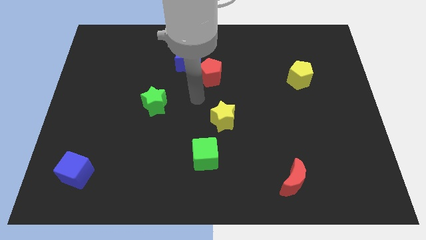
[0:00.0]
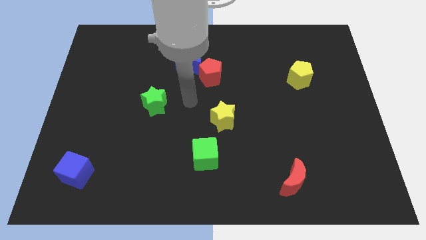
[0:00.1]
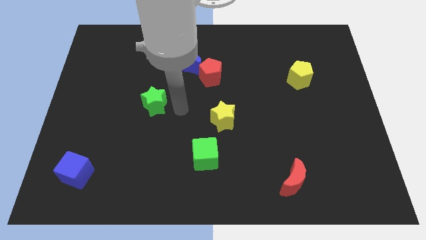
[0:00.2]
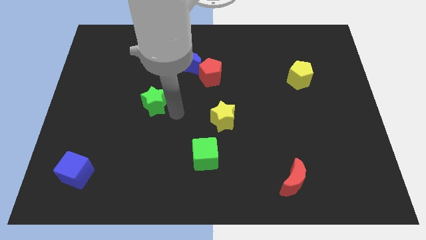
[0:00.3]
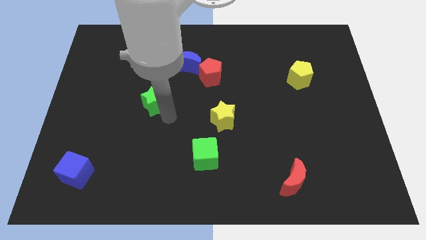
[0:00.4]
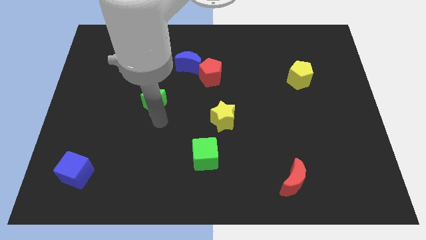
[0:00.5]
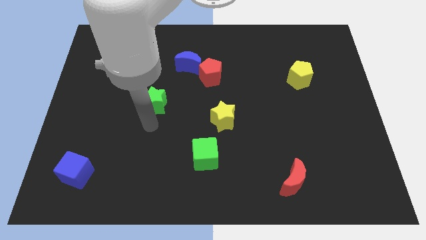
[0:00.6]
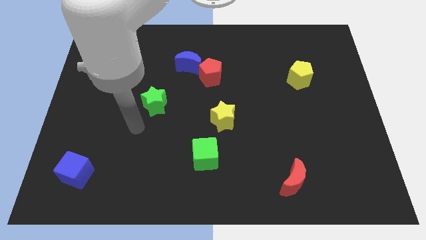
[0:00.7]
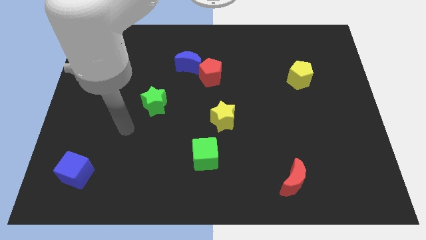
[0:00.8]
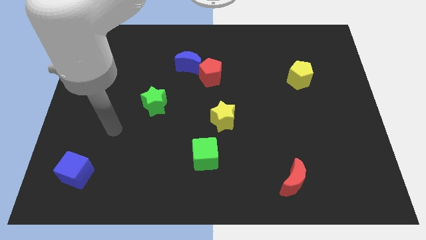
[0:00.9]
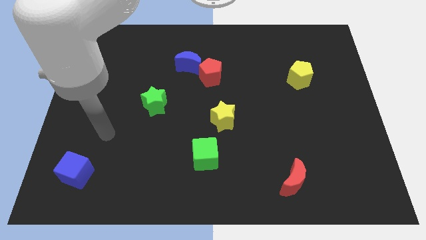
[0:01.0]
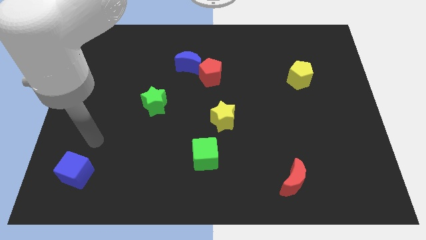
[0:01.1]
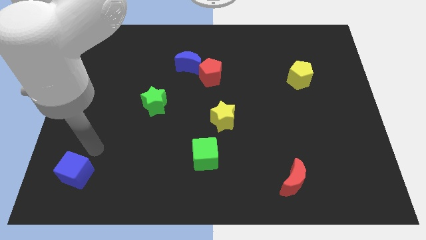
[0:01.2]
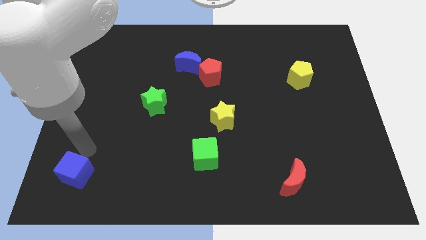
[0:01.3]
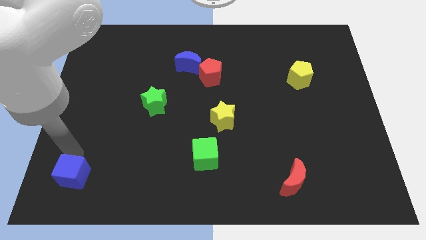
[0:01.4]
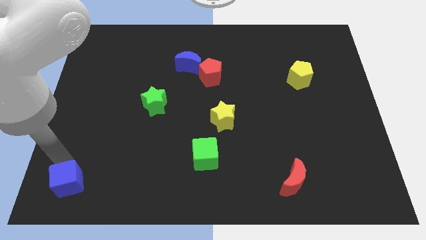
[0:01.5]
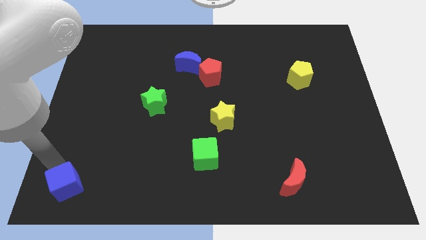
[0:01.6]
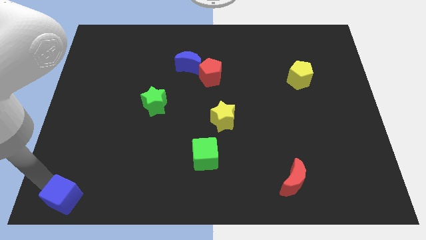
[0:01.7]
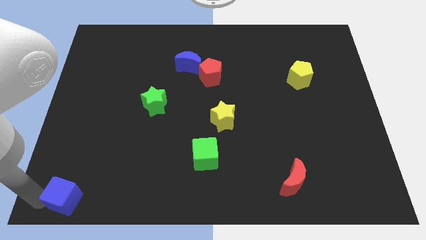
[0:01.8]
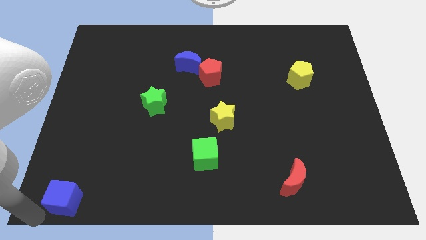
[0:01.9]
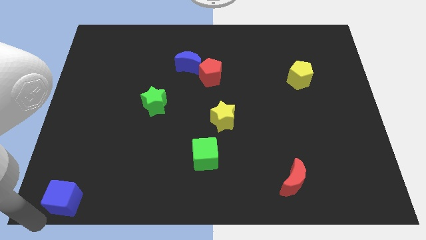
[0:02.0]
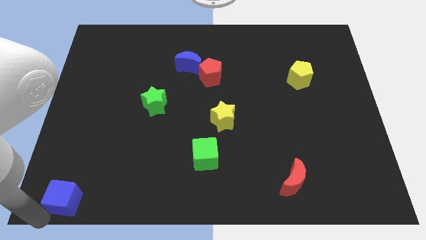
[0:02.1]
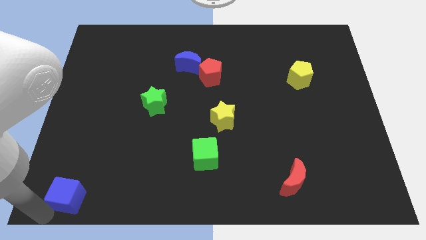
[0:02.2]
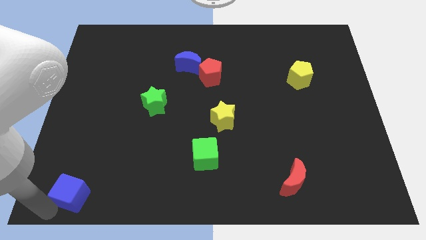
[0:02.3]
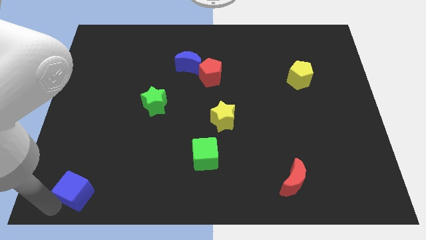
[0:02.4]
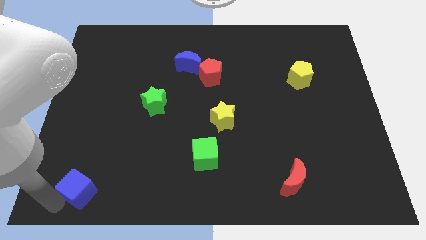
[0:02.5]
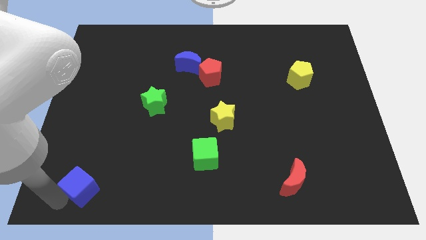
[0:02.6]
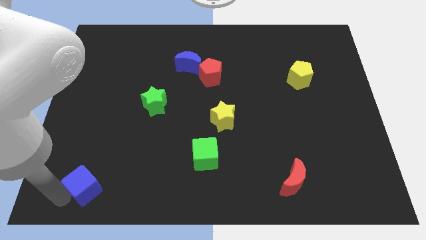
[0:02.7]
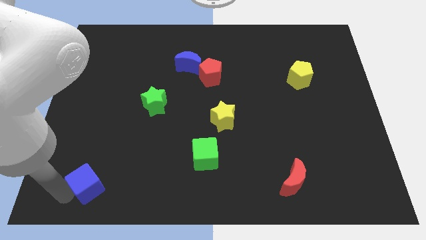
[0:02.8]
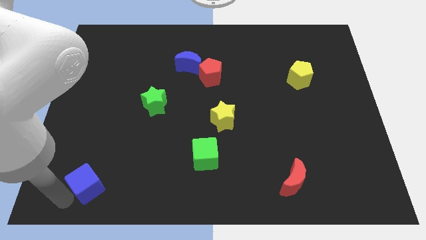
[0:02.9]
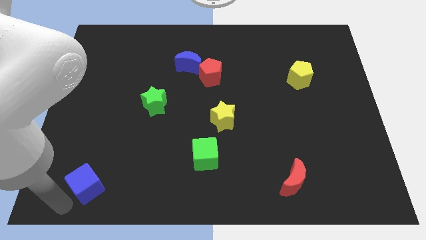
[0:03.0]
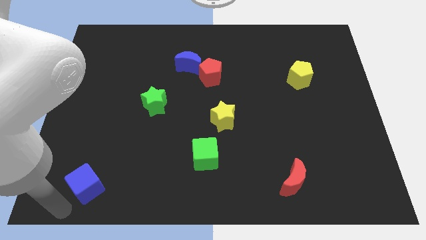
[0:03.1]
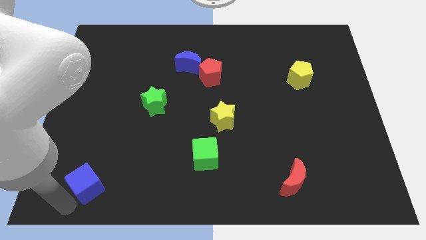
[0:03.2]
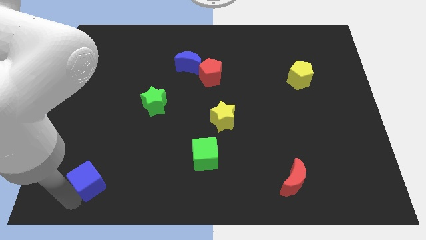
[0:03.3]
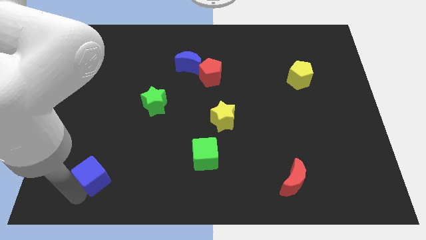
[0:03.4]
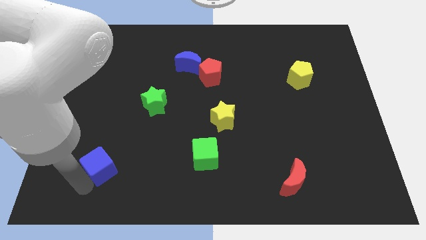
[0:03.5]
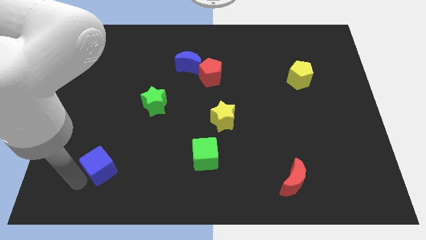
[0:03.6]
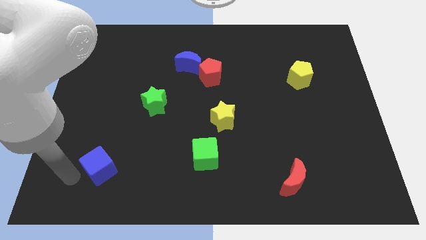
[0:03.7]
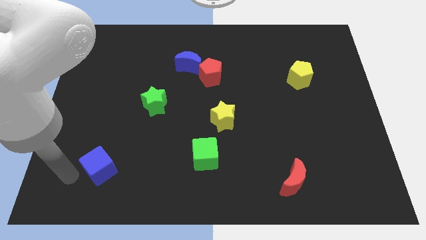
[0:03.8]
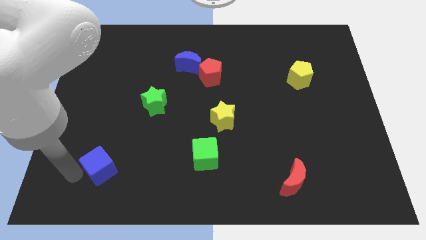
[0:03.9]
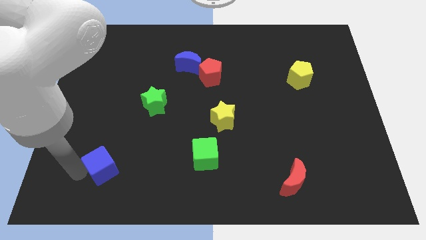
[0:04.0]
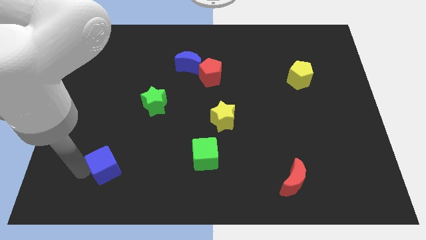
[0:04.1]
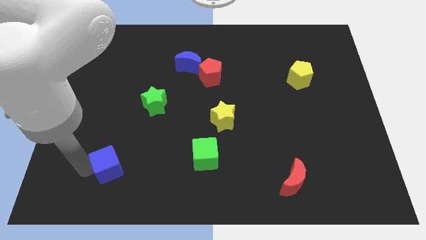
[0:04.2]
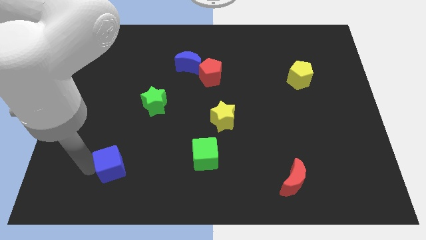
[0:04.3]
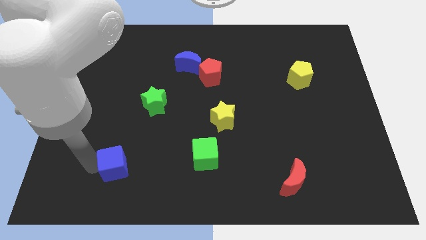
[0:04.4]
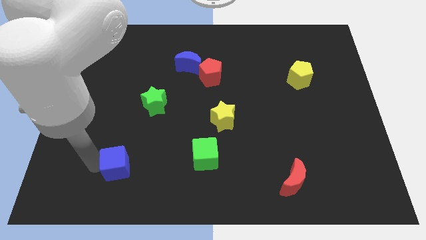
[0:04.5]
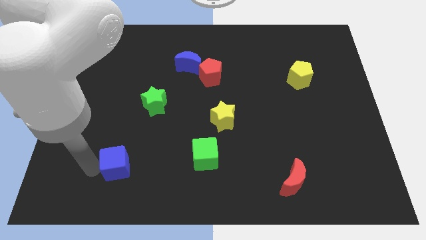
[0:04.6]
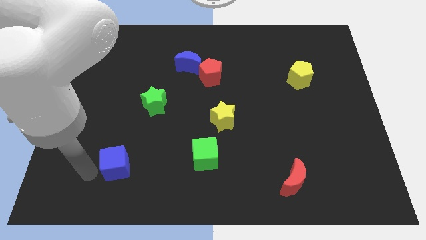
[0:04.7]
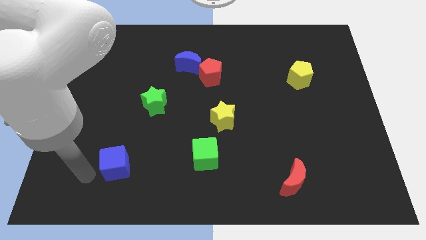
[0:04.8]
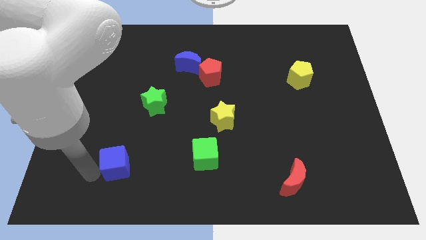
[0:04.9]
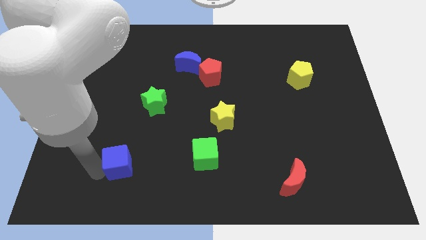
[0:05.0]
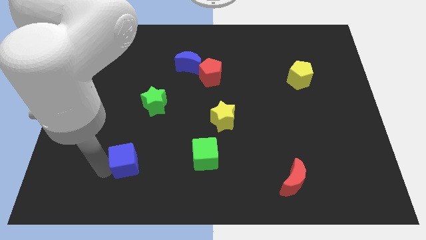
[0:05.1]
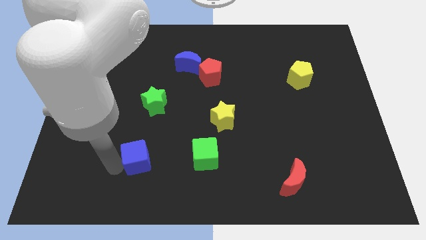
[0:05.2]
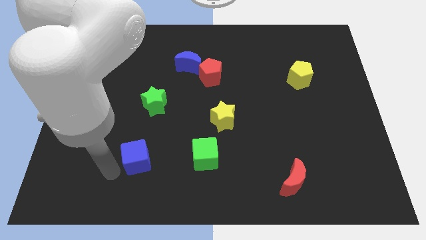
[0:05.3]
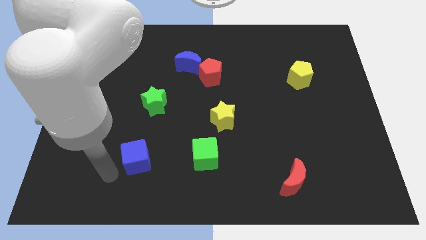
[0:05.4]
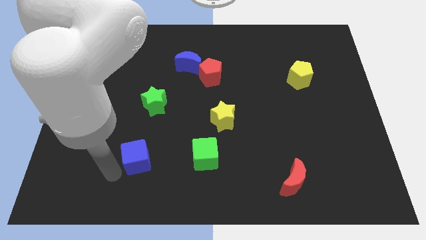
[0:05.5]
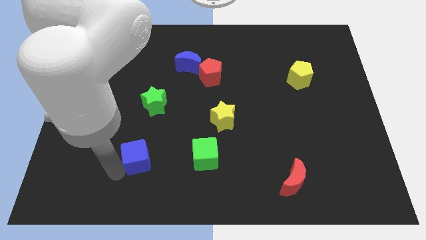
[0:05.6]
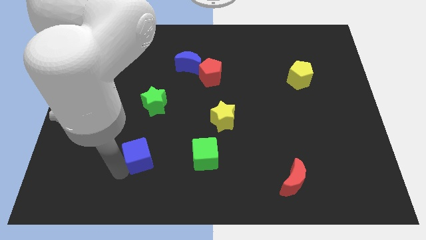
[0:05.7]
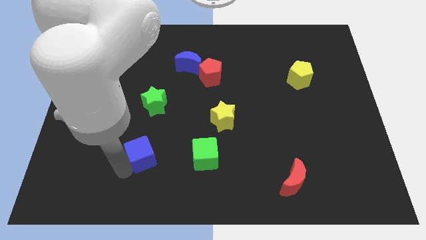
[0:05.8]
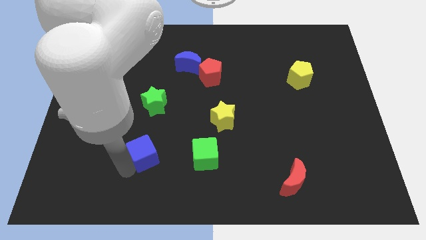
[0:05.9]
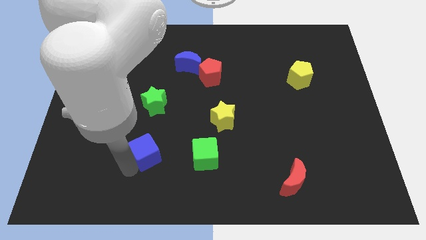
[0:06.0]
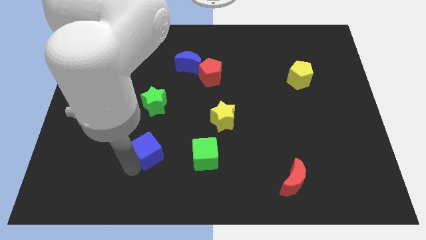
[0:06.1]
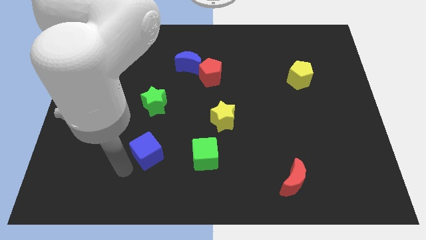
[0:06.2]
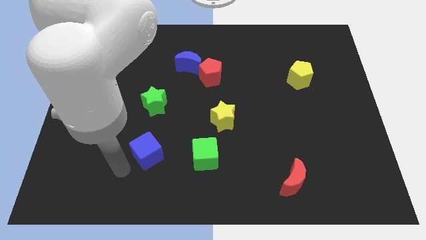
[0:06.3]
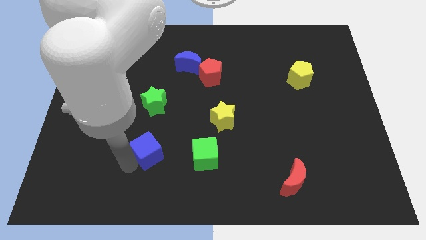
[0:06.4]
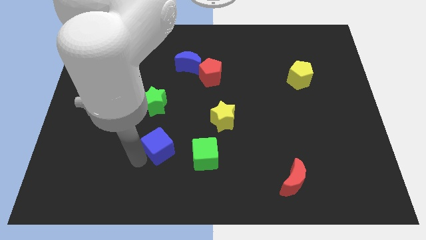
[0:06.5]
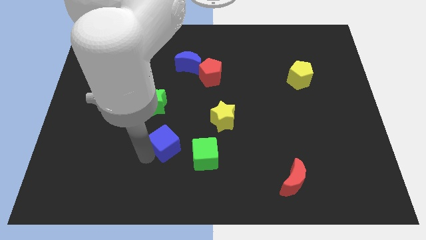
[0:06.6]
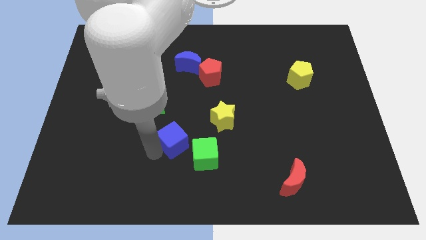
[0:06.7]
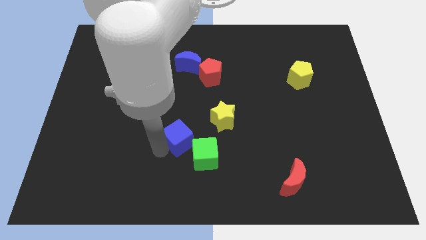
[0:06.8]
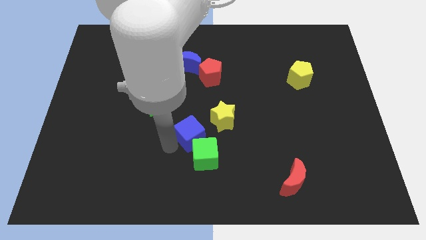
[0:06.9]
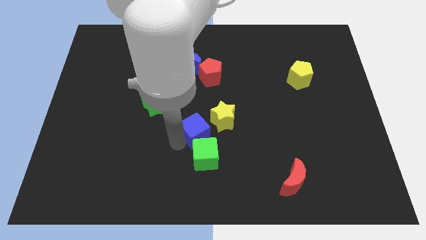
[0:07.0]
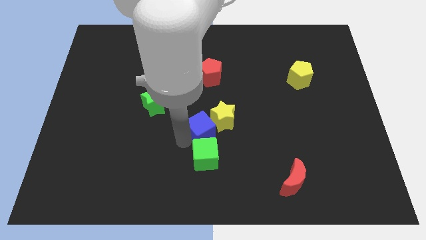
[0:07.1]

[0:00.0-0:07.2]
push the blue cube next to the yellow star
